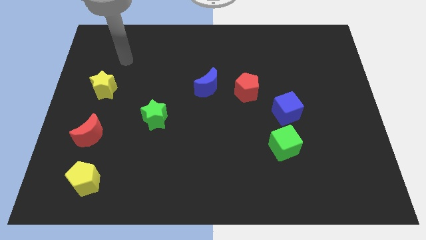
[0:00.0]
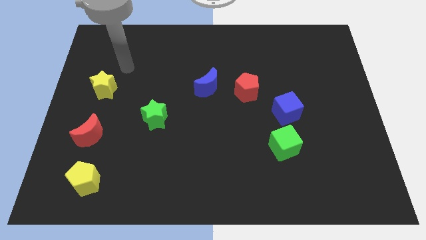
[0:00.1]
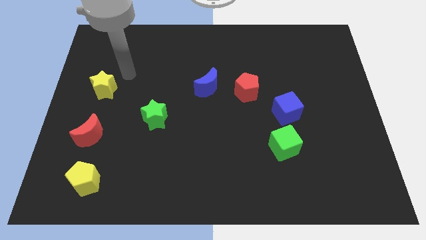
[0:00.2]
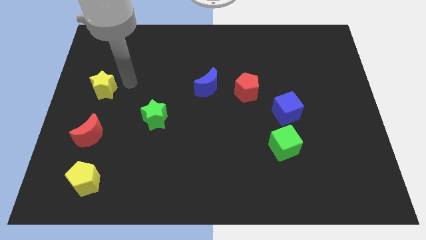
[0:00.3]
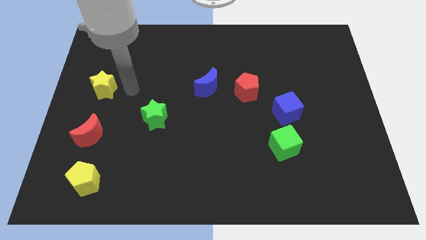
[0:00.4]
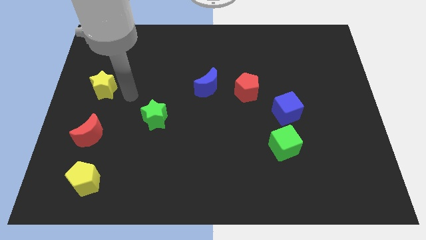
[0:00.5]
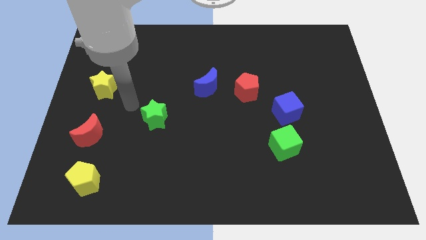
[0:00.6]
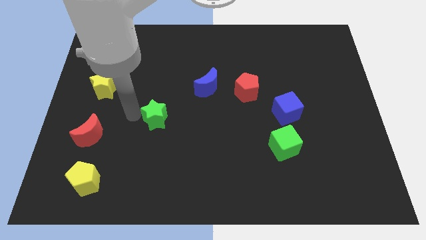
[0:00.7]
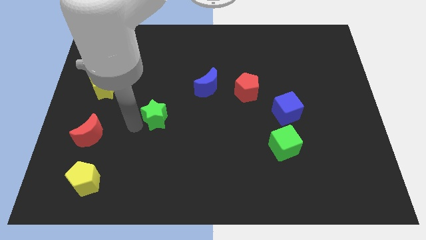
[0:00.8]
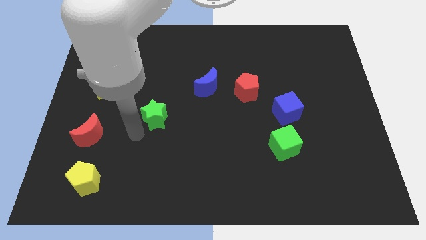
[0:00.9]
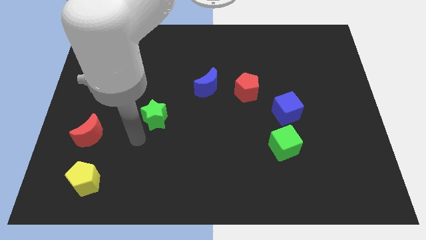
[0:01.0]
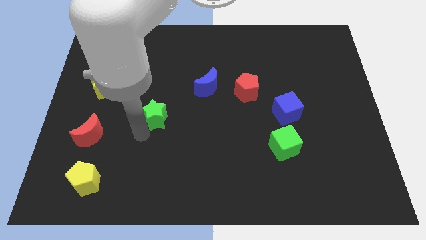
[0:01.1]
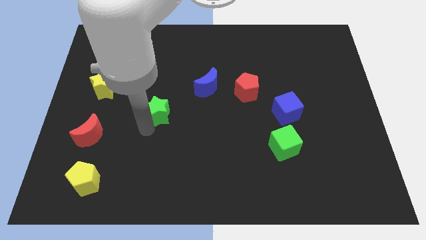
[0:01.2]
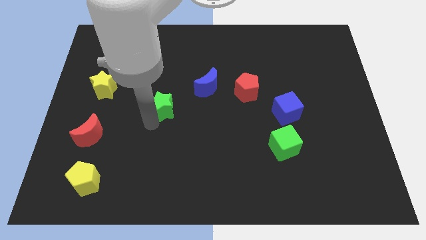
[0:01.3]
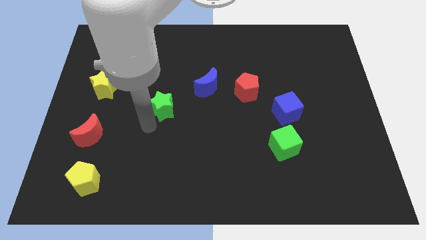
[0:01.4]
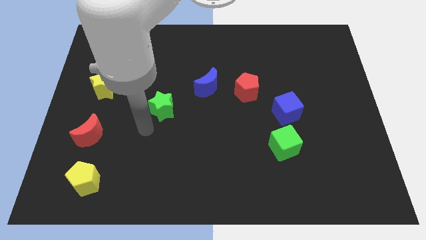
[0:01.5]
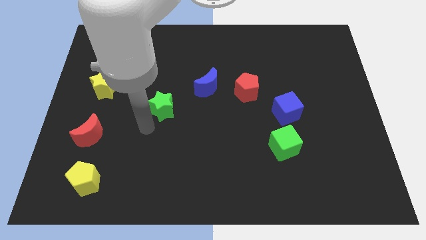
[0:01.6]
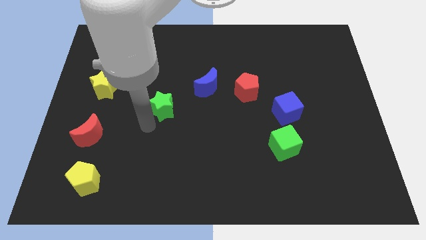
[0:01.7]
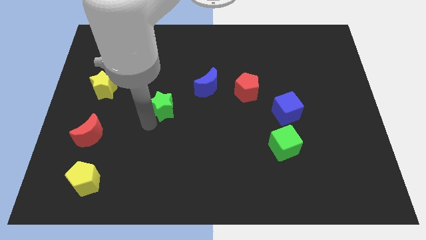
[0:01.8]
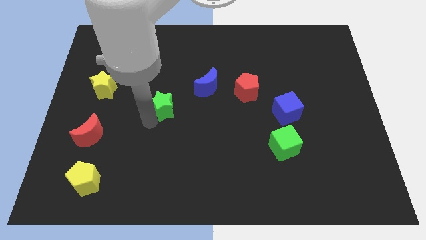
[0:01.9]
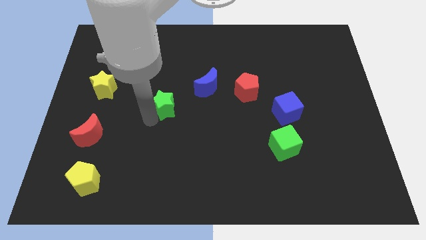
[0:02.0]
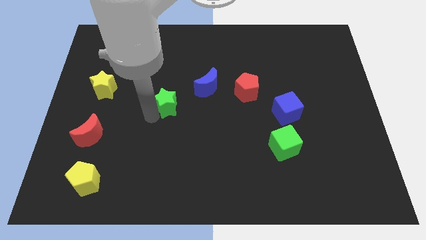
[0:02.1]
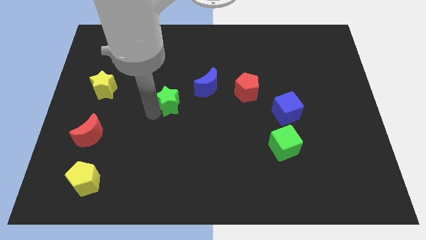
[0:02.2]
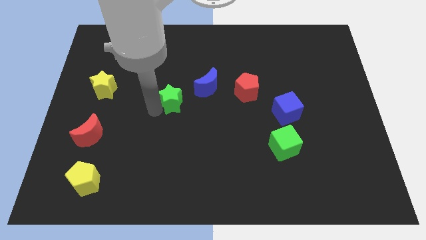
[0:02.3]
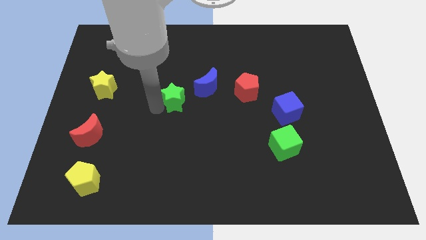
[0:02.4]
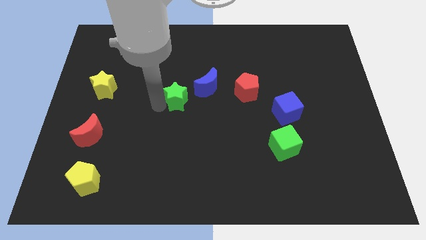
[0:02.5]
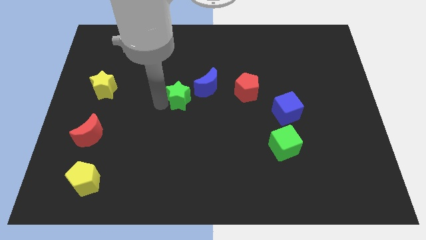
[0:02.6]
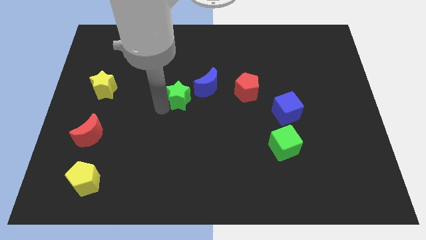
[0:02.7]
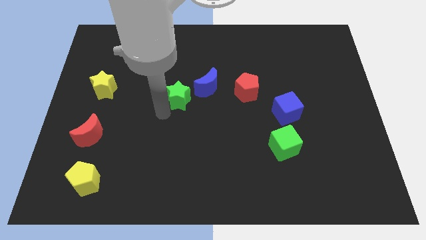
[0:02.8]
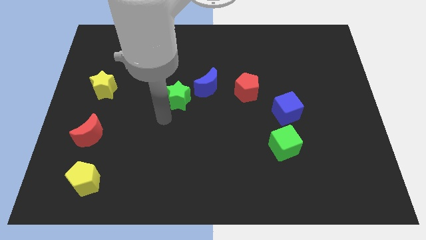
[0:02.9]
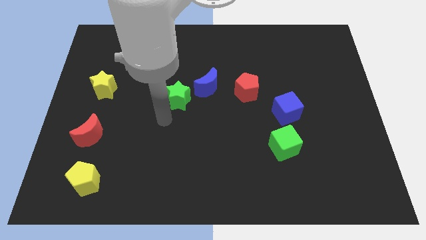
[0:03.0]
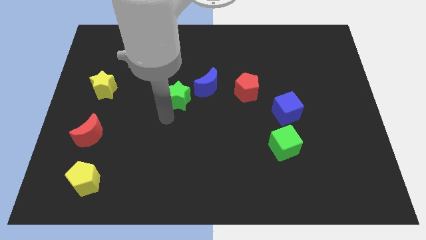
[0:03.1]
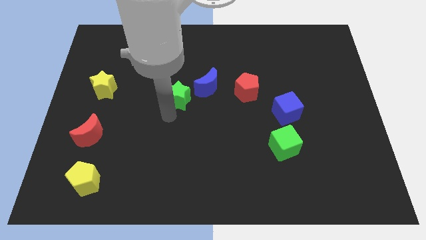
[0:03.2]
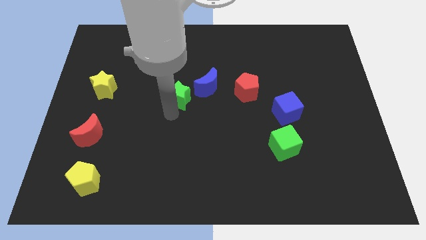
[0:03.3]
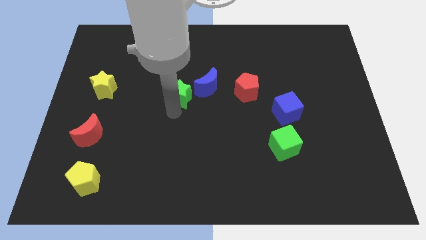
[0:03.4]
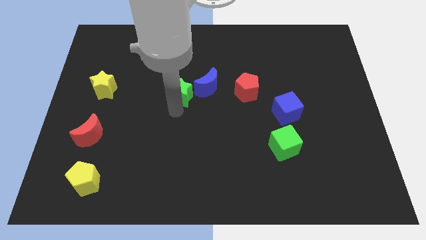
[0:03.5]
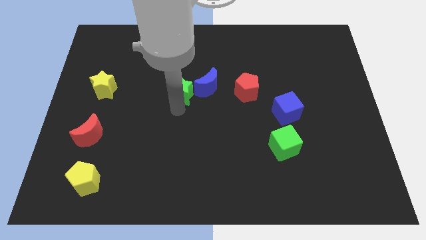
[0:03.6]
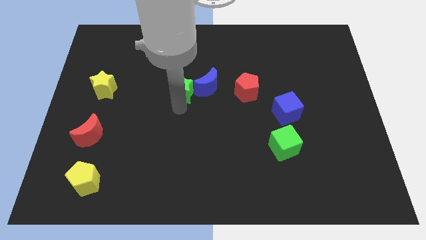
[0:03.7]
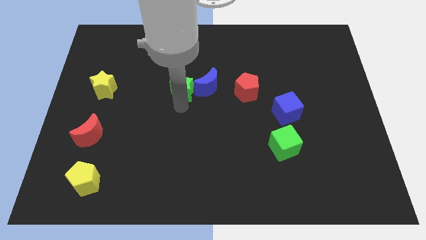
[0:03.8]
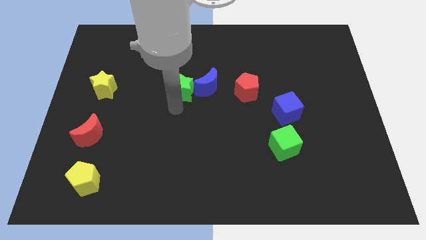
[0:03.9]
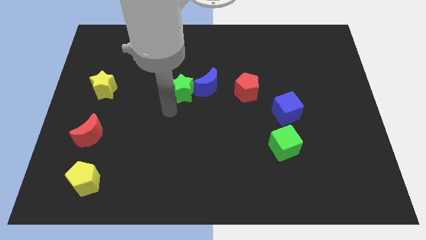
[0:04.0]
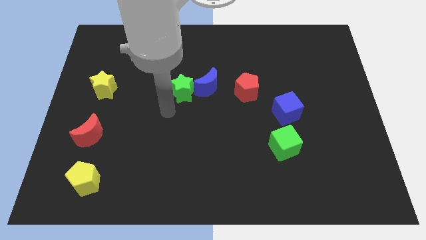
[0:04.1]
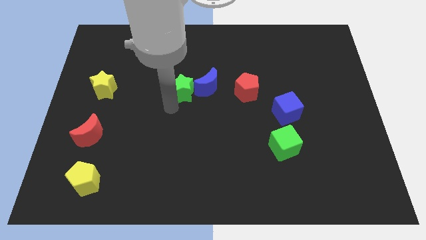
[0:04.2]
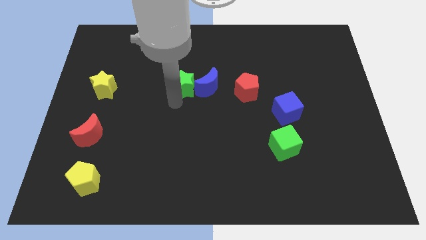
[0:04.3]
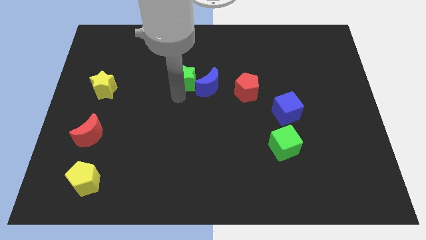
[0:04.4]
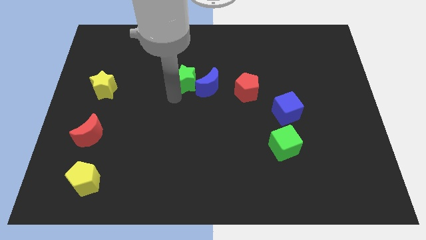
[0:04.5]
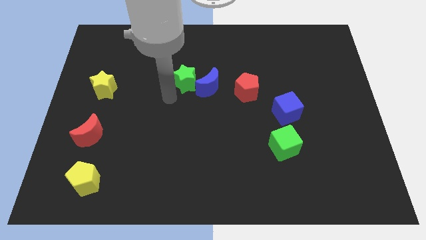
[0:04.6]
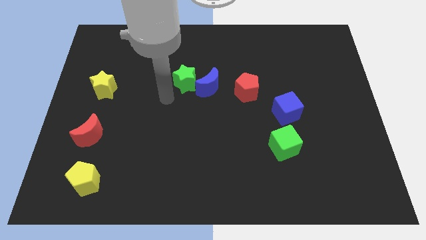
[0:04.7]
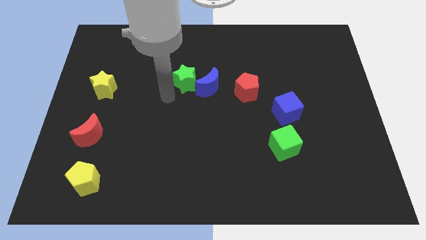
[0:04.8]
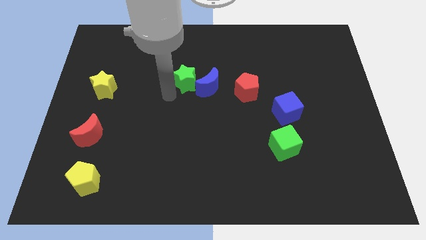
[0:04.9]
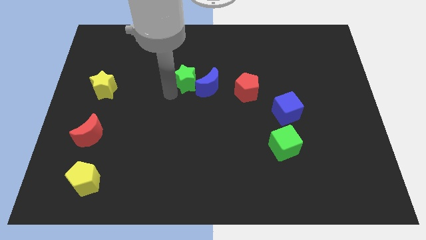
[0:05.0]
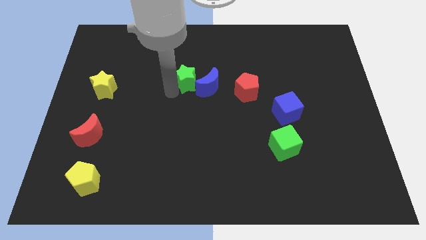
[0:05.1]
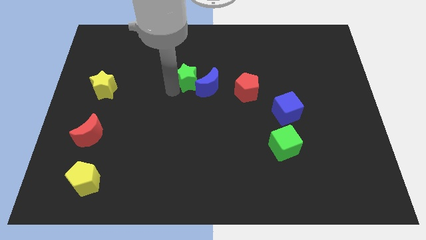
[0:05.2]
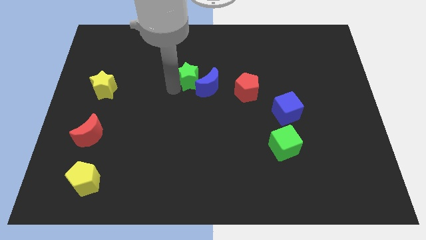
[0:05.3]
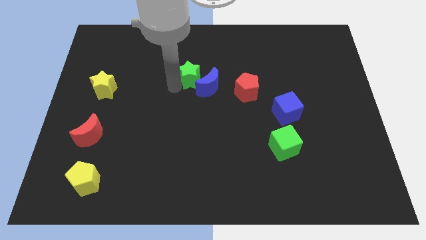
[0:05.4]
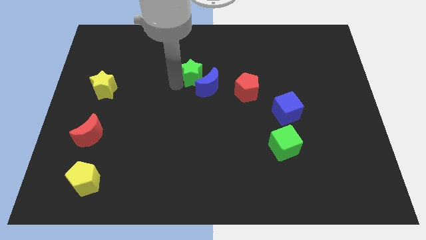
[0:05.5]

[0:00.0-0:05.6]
push the green star to the top side of the blue moon

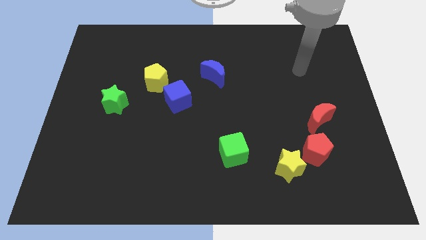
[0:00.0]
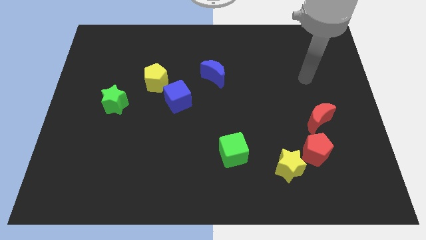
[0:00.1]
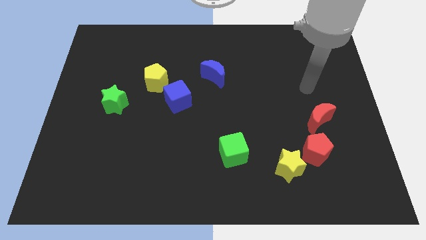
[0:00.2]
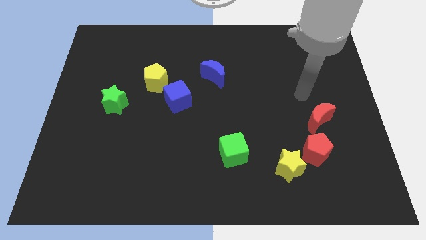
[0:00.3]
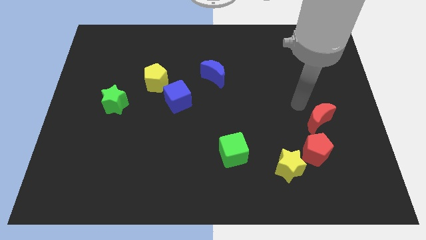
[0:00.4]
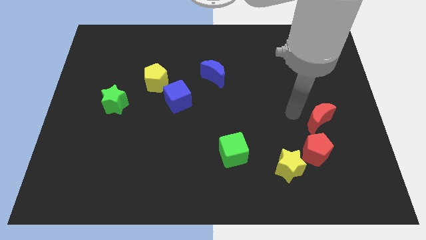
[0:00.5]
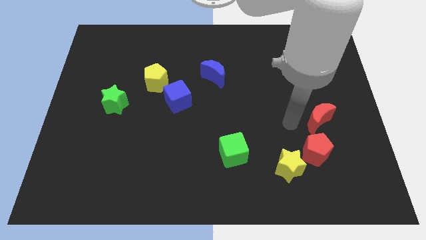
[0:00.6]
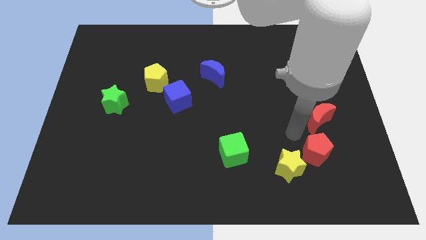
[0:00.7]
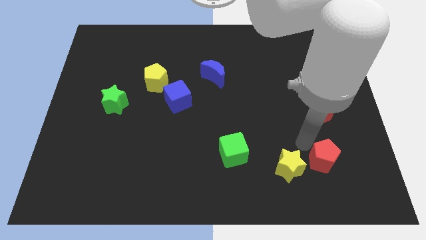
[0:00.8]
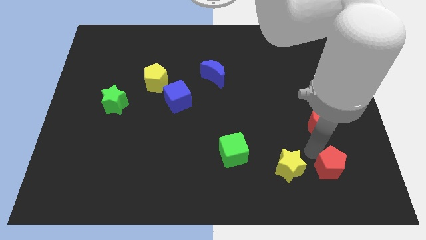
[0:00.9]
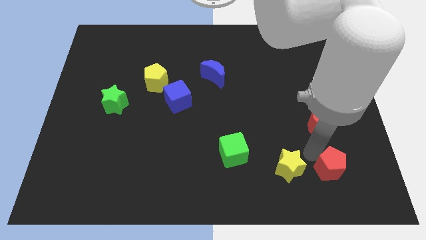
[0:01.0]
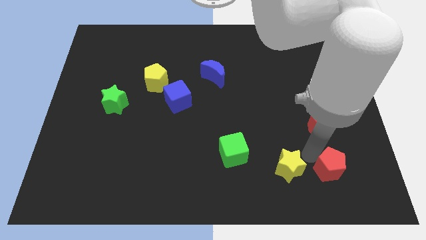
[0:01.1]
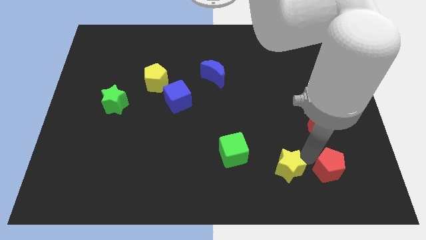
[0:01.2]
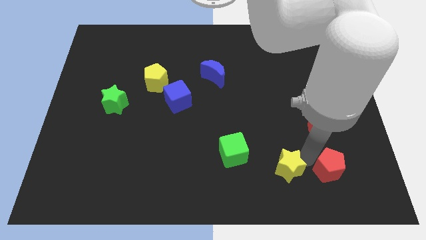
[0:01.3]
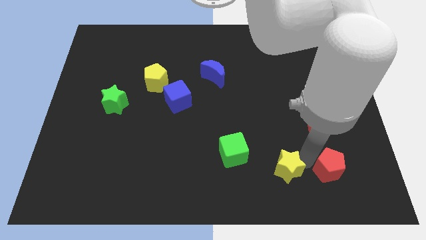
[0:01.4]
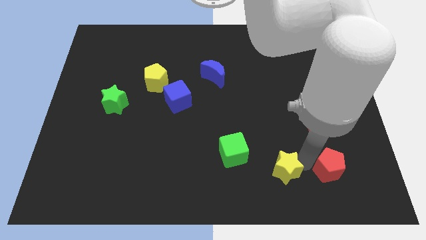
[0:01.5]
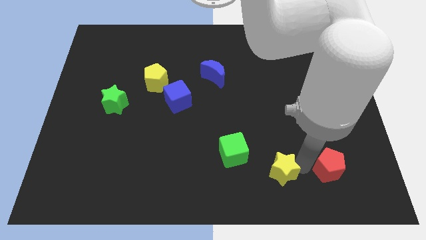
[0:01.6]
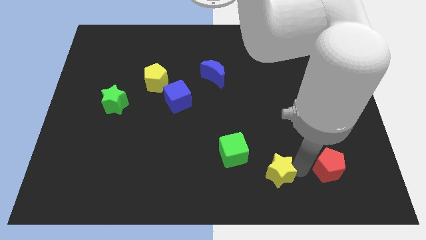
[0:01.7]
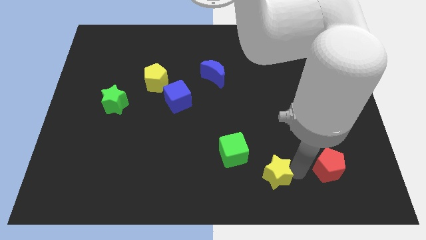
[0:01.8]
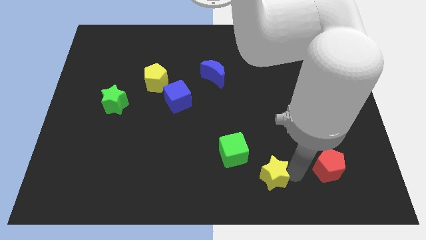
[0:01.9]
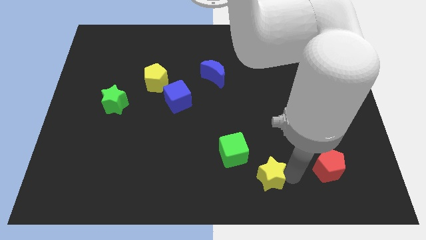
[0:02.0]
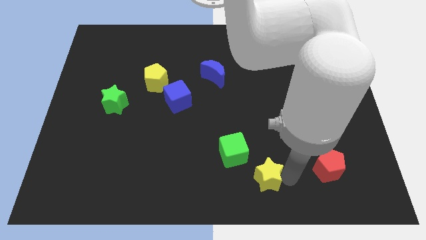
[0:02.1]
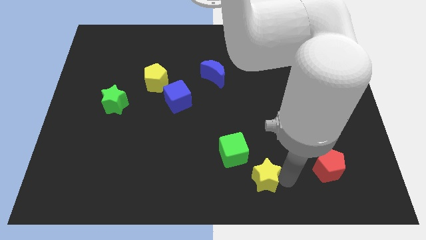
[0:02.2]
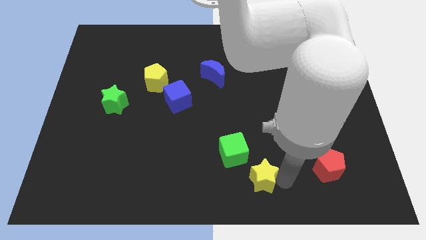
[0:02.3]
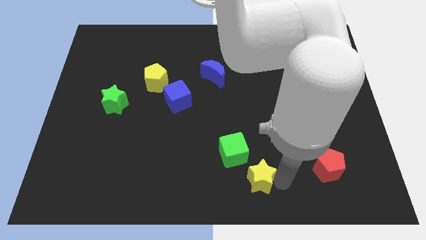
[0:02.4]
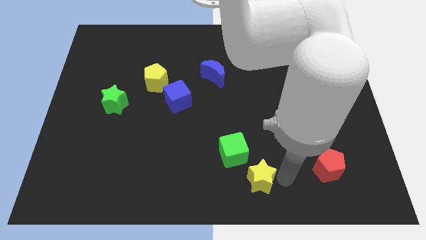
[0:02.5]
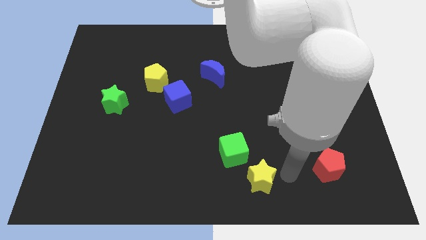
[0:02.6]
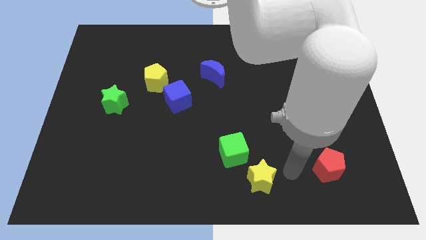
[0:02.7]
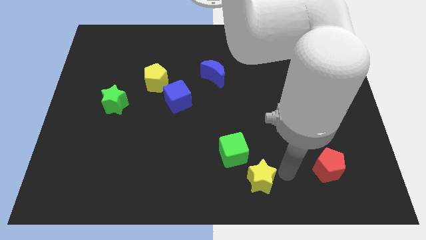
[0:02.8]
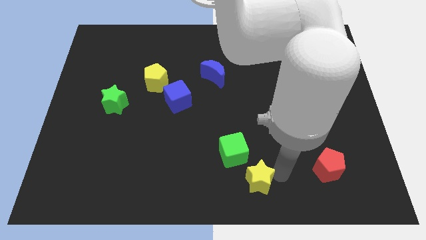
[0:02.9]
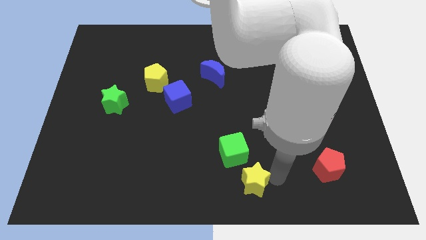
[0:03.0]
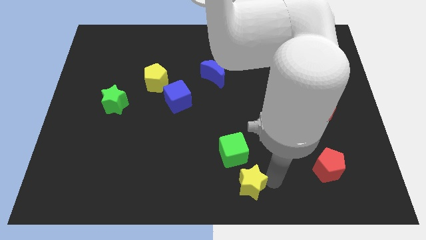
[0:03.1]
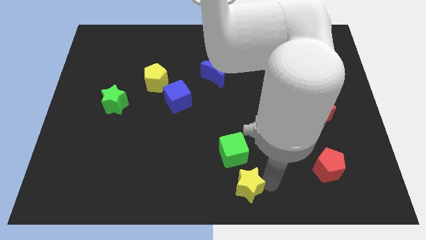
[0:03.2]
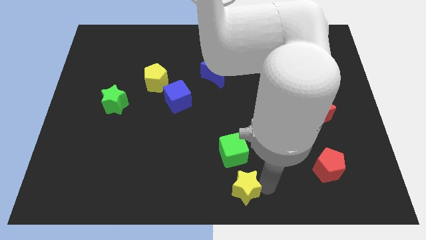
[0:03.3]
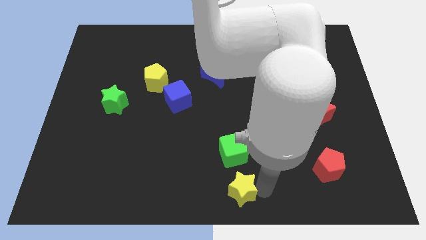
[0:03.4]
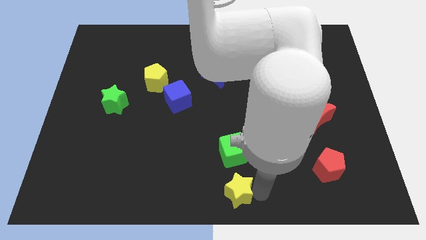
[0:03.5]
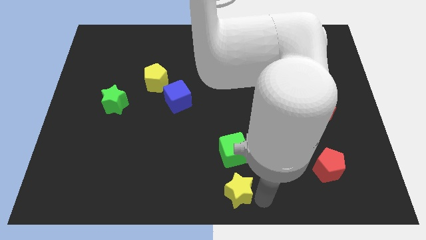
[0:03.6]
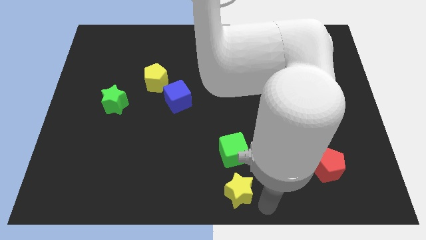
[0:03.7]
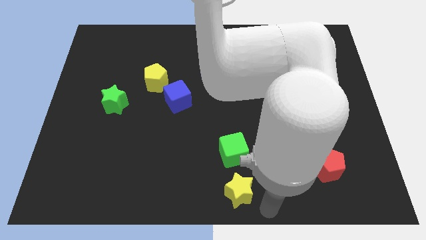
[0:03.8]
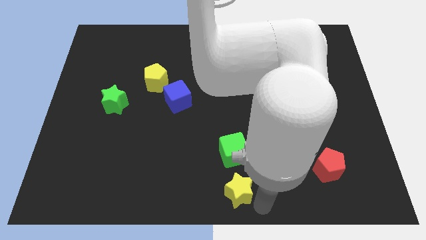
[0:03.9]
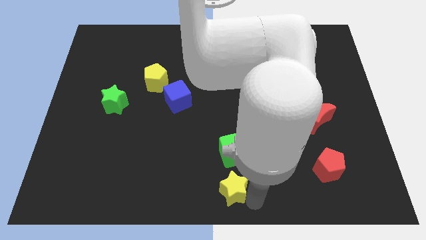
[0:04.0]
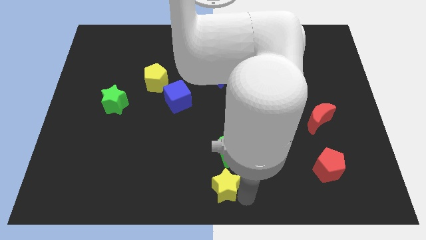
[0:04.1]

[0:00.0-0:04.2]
put the yellow star to the bottom left side of the green cube
